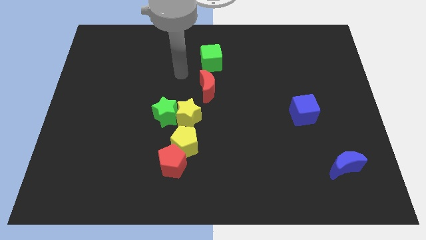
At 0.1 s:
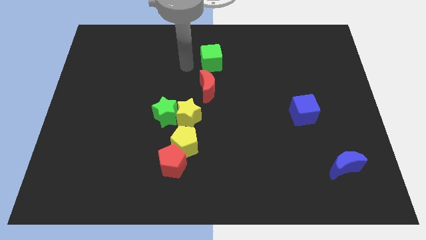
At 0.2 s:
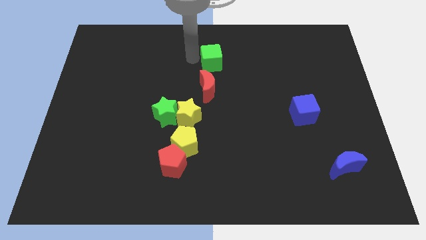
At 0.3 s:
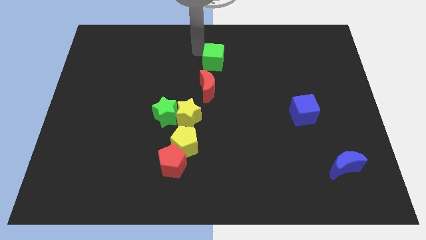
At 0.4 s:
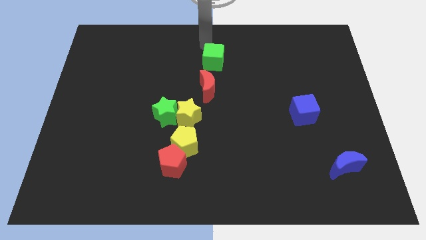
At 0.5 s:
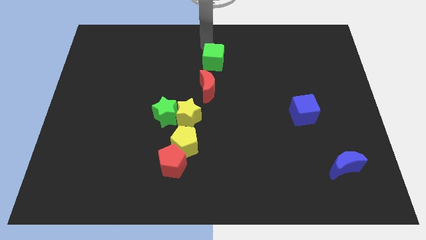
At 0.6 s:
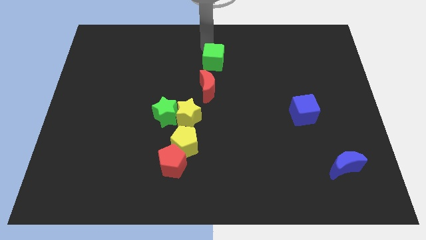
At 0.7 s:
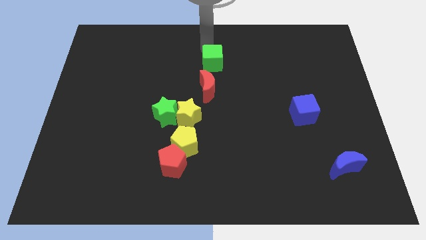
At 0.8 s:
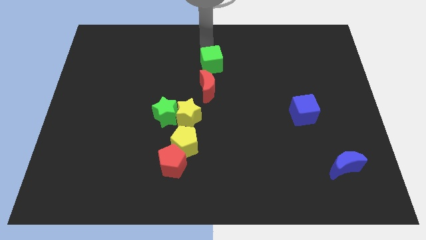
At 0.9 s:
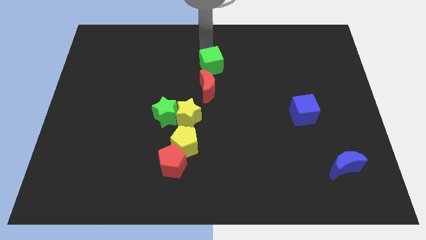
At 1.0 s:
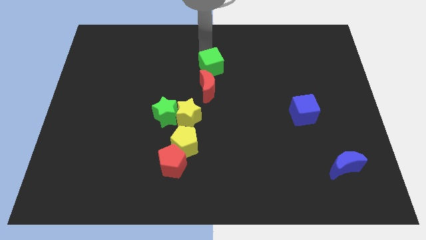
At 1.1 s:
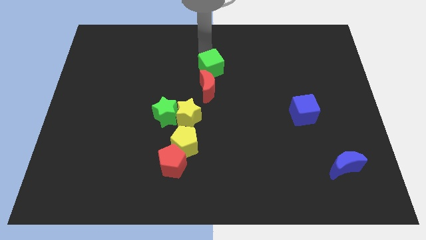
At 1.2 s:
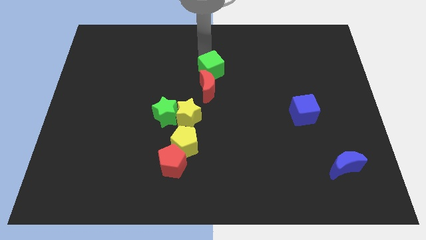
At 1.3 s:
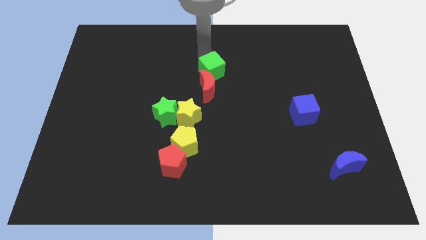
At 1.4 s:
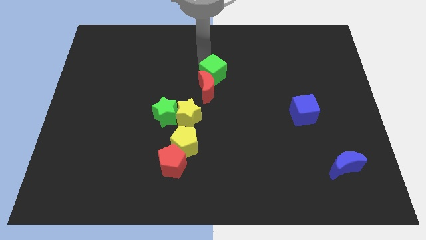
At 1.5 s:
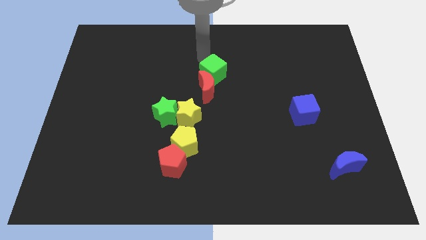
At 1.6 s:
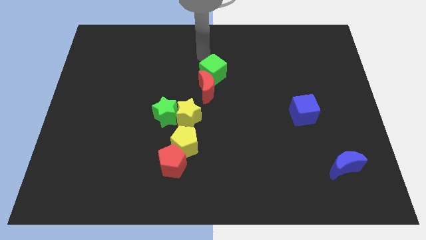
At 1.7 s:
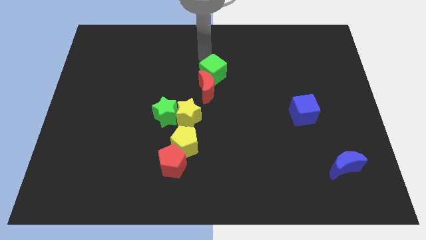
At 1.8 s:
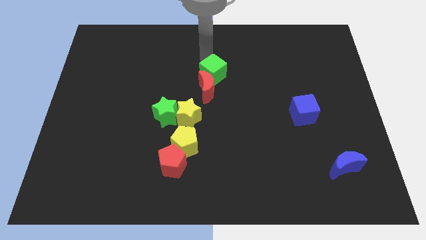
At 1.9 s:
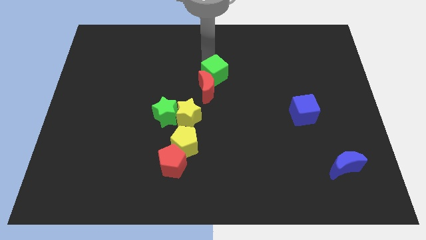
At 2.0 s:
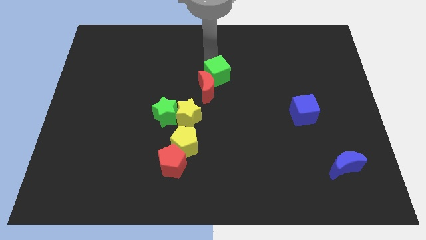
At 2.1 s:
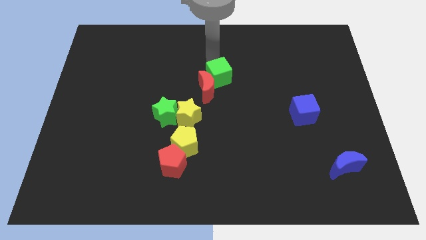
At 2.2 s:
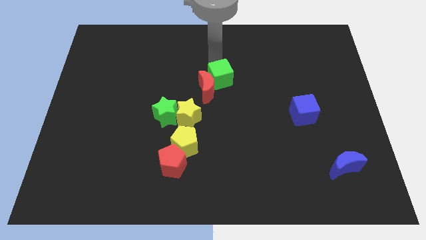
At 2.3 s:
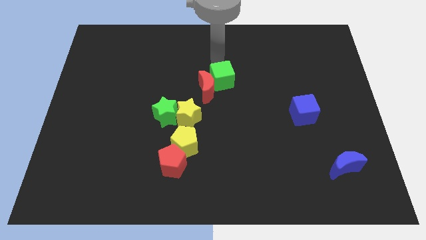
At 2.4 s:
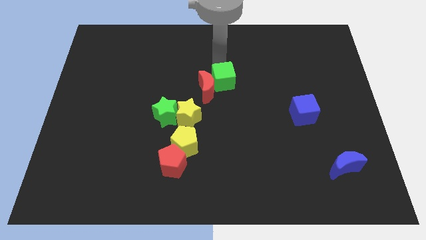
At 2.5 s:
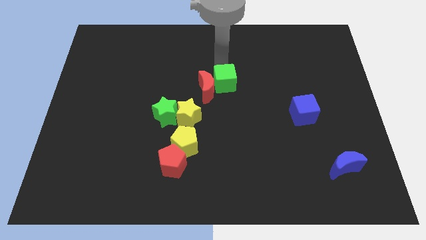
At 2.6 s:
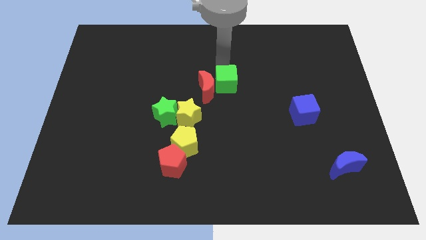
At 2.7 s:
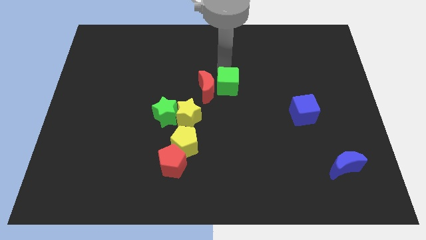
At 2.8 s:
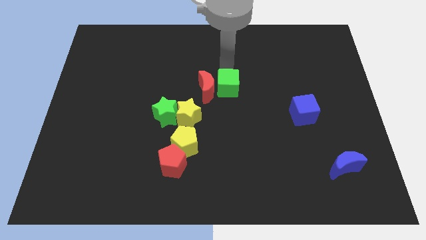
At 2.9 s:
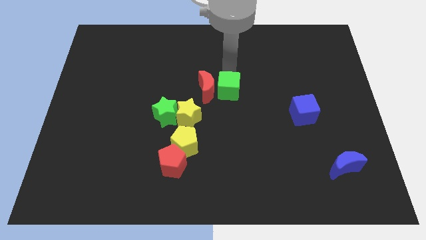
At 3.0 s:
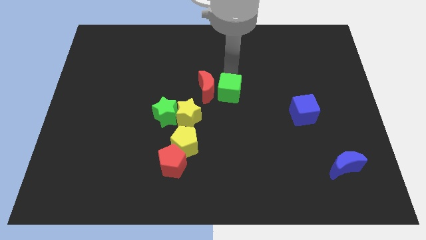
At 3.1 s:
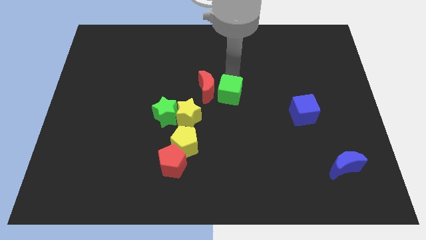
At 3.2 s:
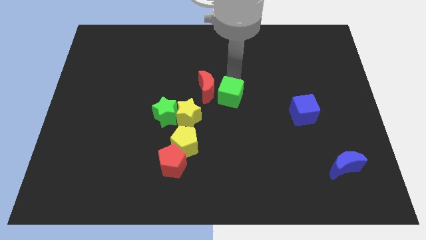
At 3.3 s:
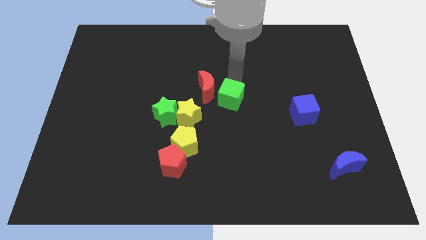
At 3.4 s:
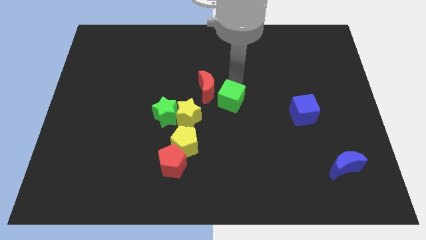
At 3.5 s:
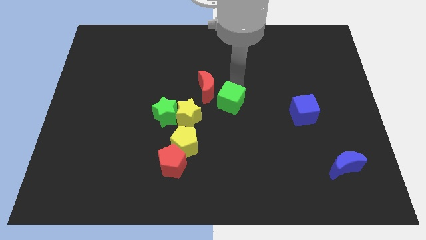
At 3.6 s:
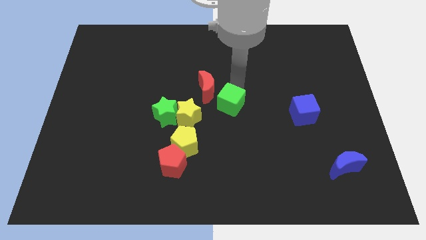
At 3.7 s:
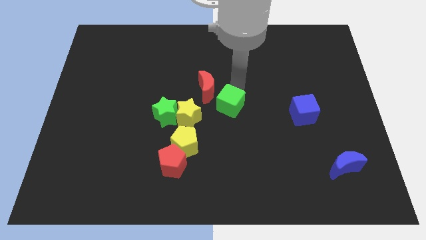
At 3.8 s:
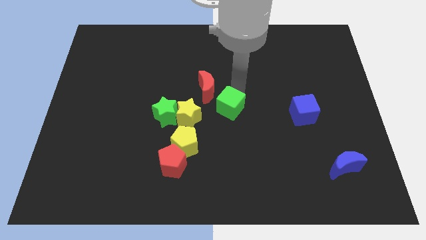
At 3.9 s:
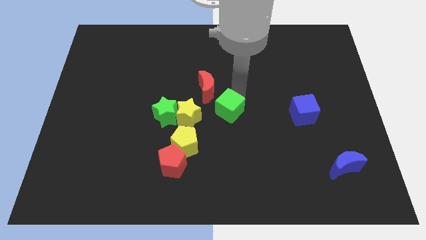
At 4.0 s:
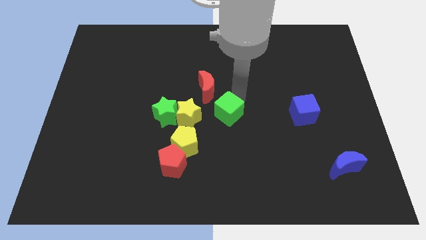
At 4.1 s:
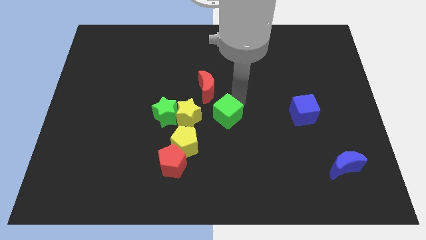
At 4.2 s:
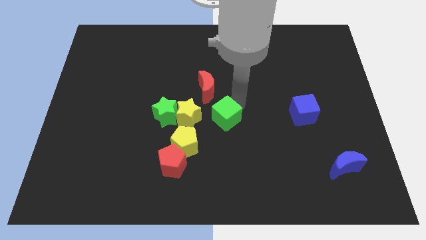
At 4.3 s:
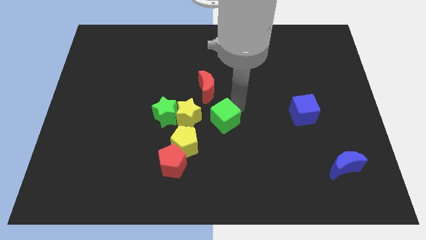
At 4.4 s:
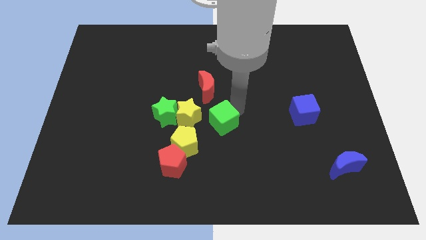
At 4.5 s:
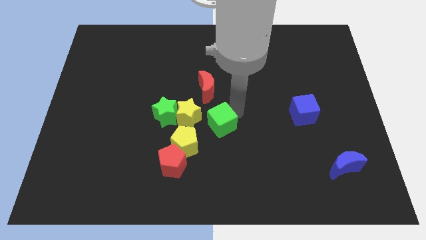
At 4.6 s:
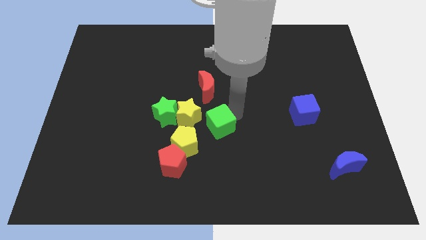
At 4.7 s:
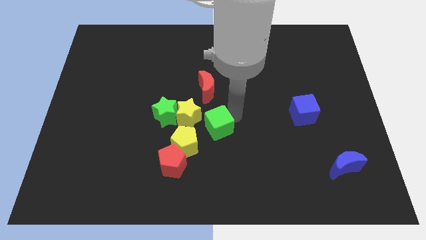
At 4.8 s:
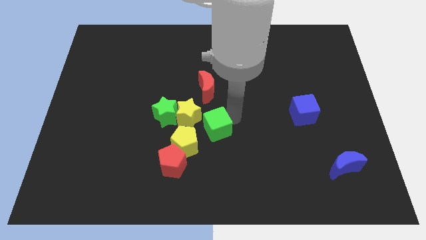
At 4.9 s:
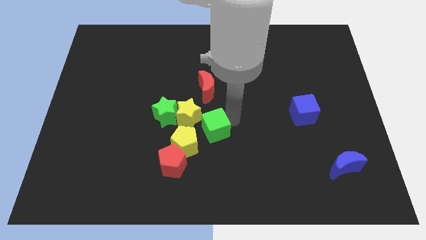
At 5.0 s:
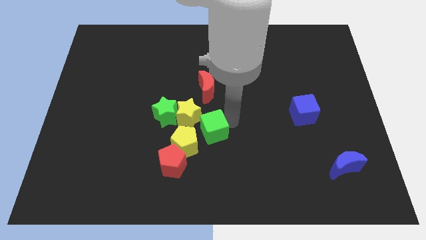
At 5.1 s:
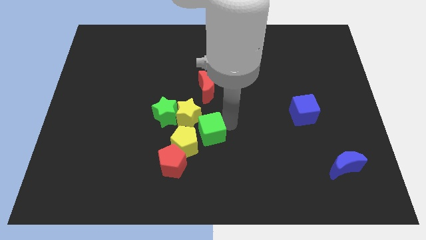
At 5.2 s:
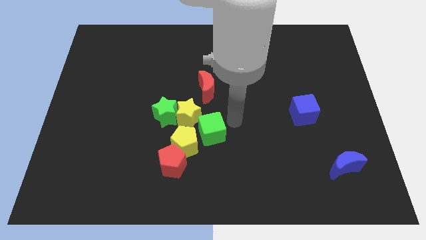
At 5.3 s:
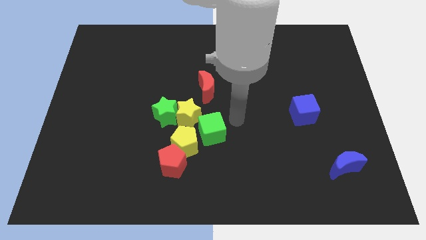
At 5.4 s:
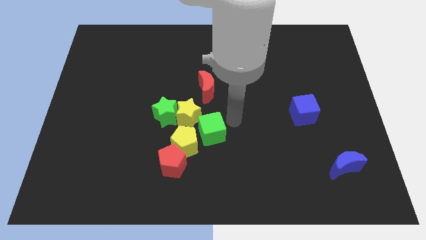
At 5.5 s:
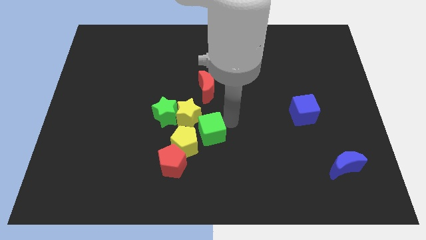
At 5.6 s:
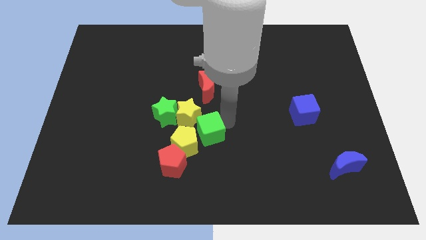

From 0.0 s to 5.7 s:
put the green cube close to the yellow pentagon

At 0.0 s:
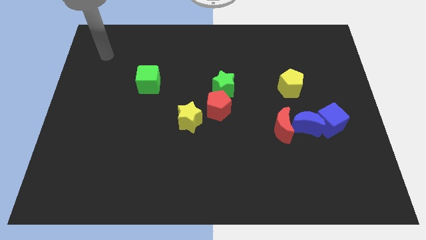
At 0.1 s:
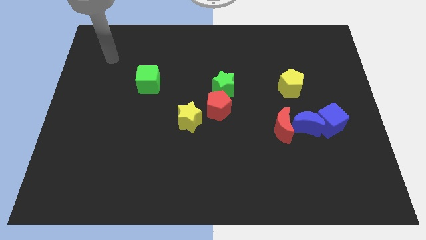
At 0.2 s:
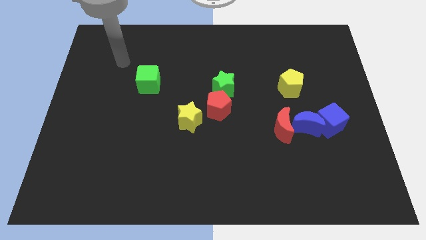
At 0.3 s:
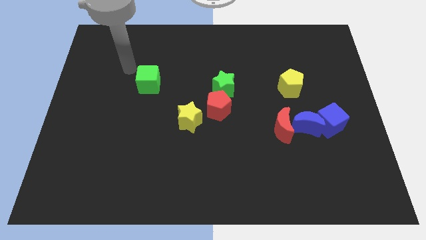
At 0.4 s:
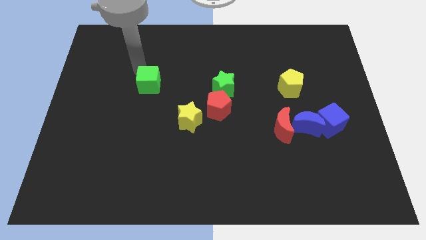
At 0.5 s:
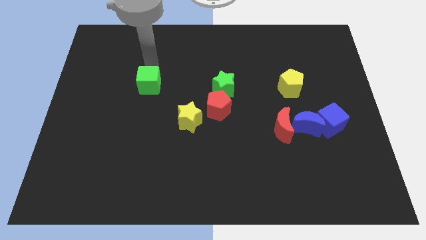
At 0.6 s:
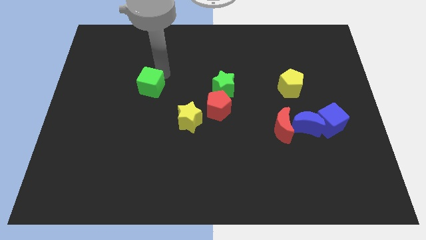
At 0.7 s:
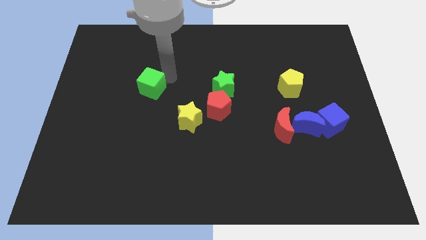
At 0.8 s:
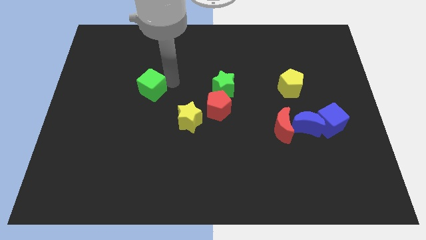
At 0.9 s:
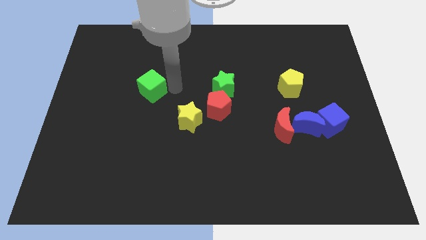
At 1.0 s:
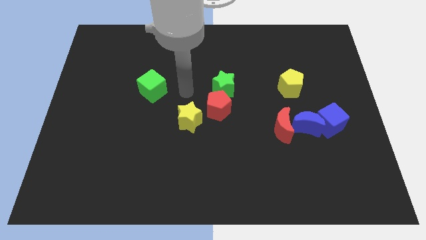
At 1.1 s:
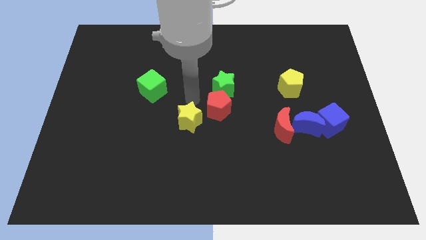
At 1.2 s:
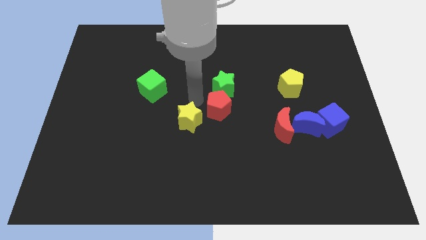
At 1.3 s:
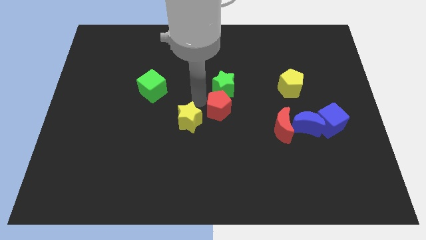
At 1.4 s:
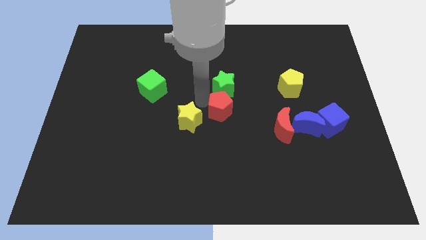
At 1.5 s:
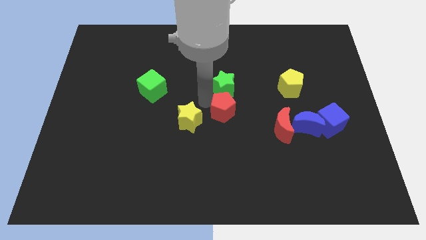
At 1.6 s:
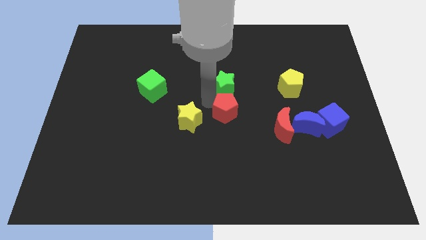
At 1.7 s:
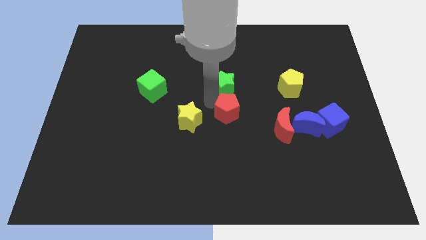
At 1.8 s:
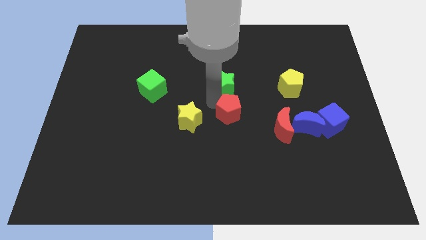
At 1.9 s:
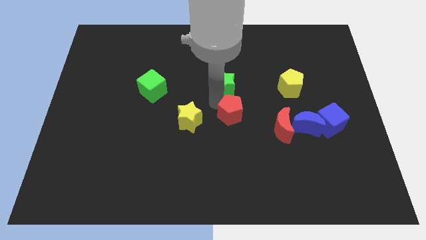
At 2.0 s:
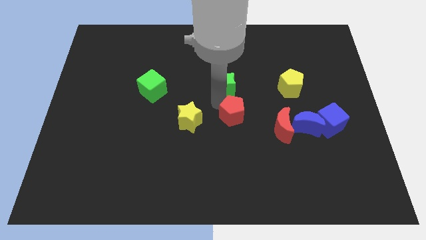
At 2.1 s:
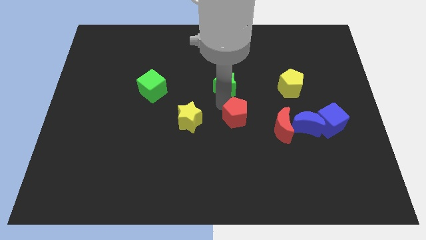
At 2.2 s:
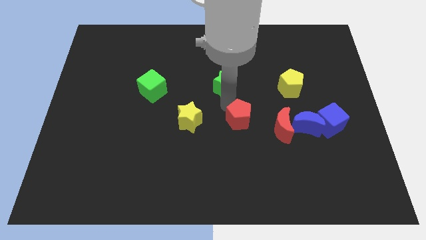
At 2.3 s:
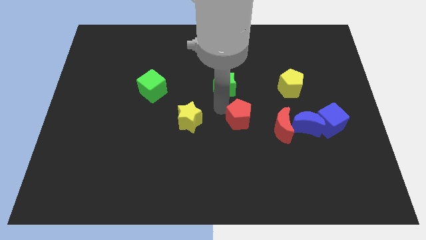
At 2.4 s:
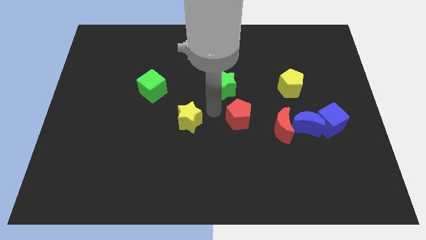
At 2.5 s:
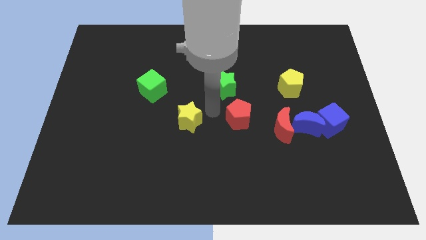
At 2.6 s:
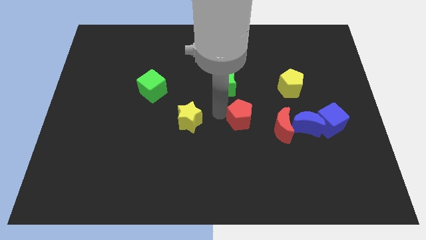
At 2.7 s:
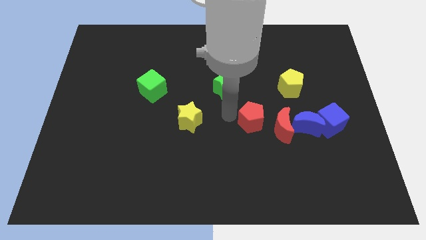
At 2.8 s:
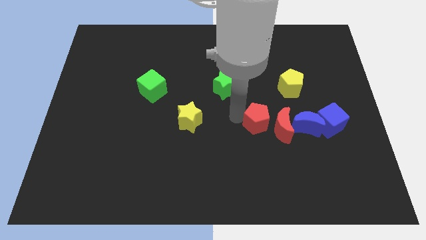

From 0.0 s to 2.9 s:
move the red pentagon towards the red moon
